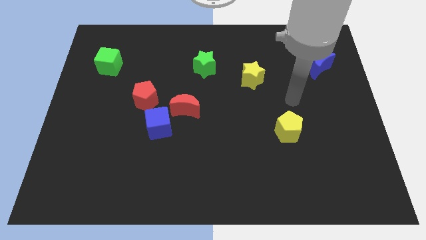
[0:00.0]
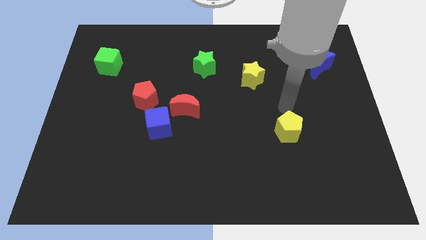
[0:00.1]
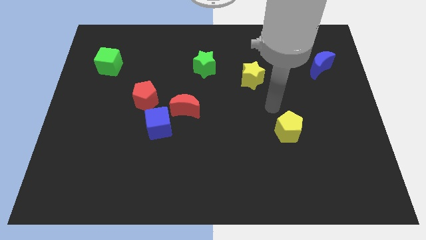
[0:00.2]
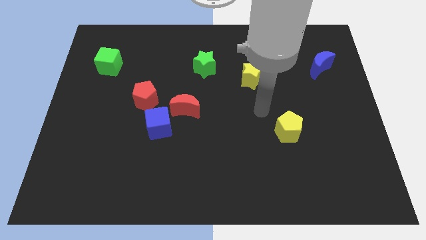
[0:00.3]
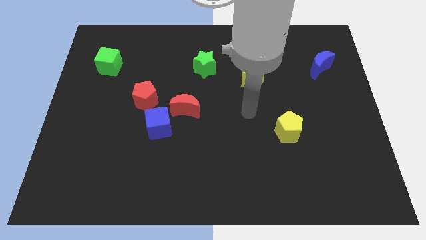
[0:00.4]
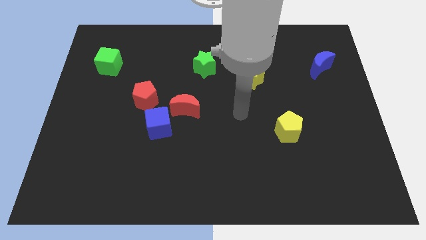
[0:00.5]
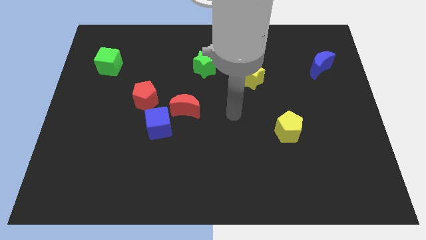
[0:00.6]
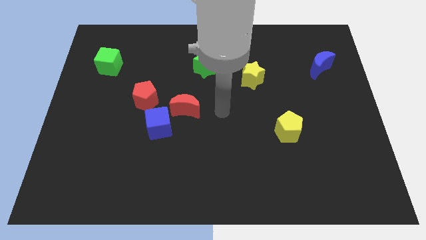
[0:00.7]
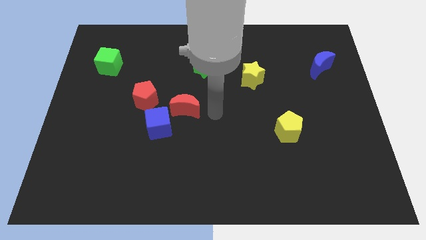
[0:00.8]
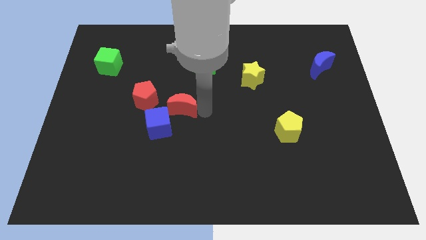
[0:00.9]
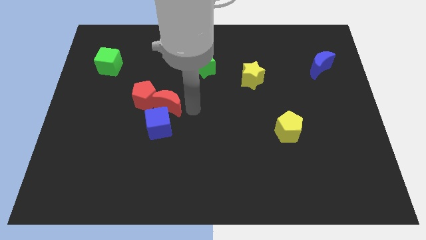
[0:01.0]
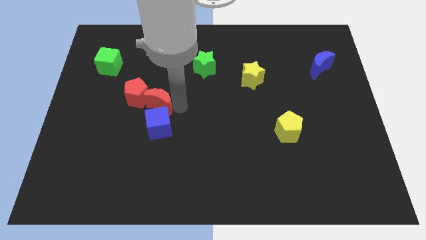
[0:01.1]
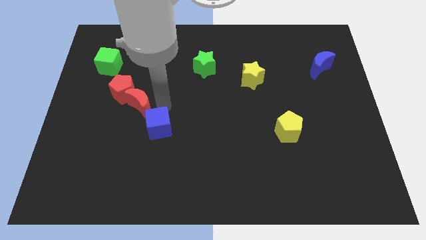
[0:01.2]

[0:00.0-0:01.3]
pull the blue cube apart from the red moon and red pentagon

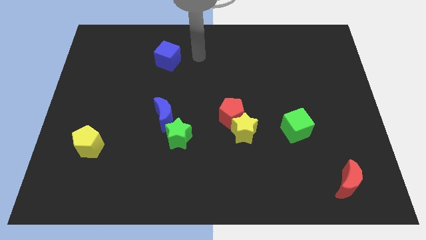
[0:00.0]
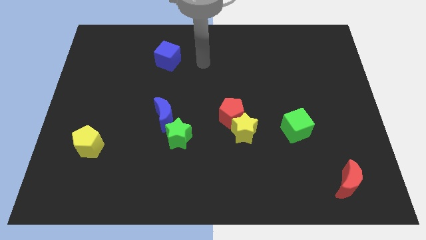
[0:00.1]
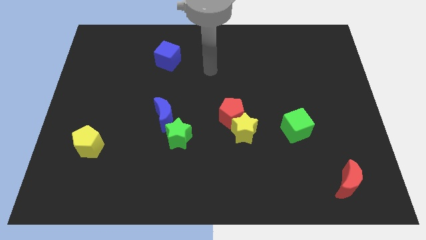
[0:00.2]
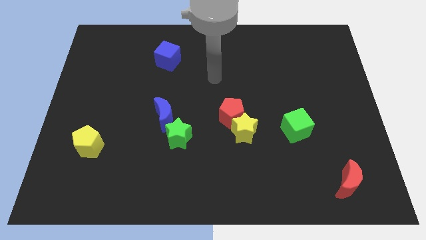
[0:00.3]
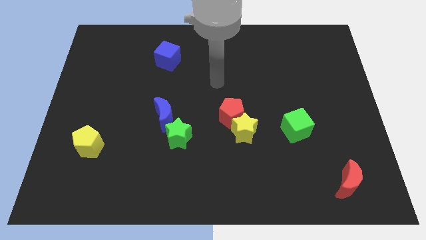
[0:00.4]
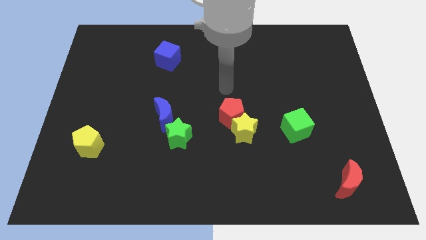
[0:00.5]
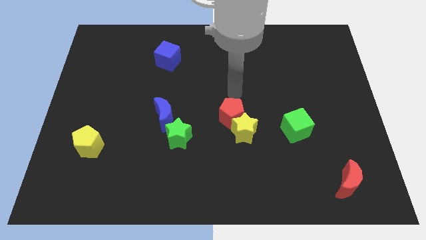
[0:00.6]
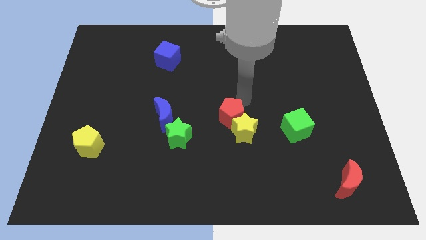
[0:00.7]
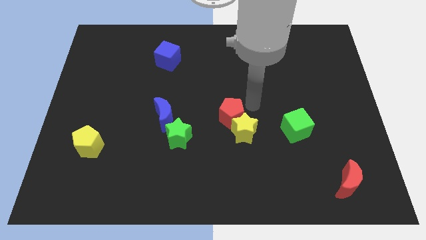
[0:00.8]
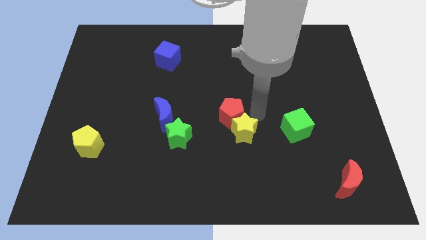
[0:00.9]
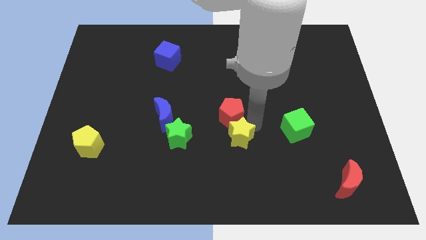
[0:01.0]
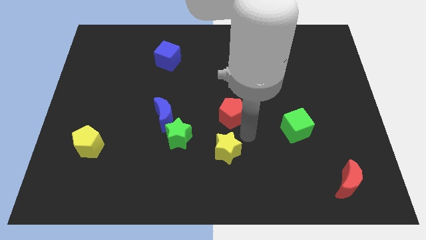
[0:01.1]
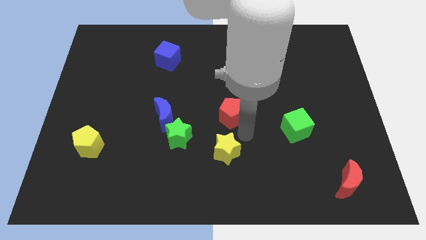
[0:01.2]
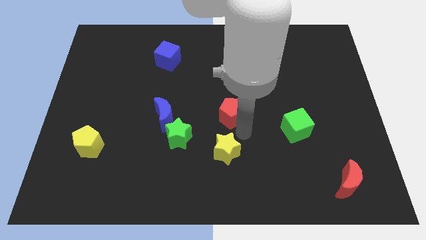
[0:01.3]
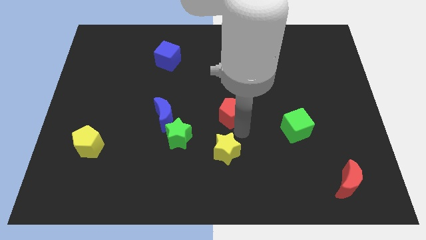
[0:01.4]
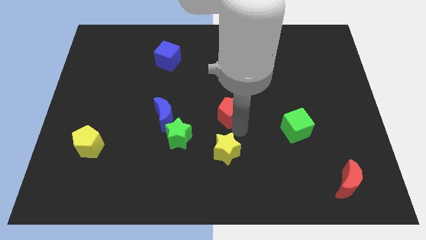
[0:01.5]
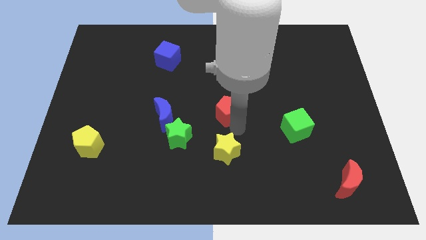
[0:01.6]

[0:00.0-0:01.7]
pull the red pentagon apart from the yellow star

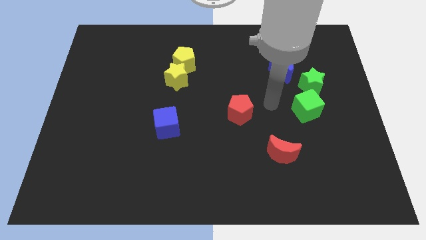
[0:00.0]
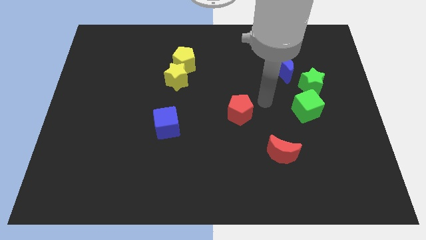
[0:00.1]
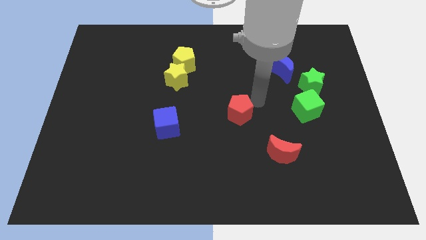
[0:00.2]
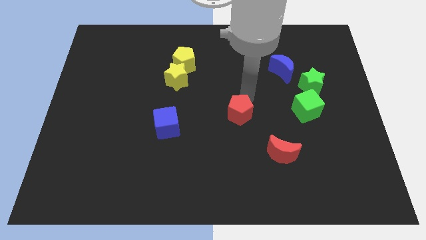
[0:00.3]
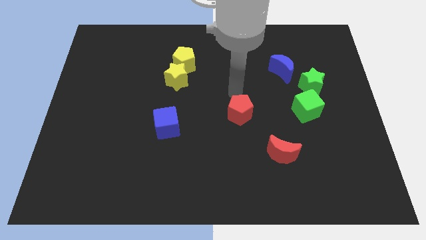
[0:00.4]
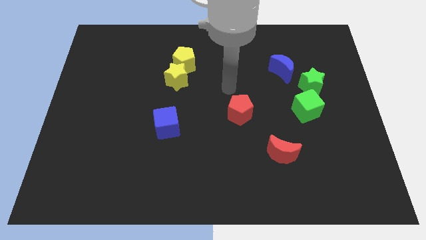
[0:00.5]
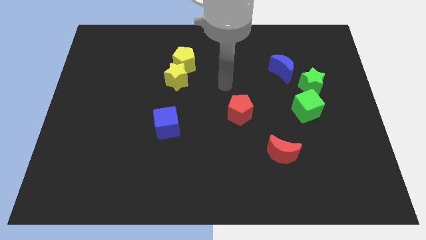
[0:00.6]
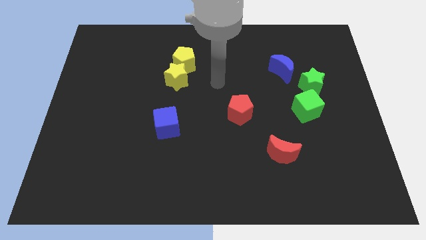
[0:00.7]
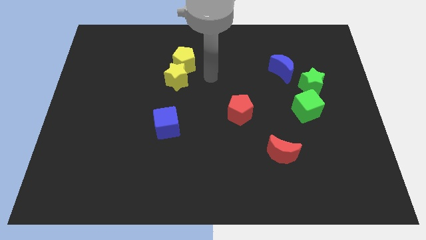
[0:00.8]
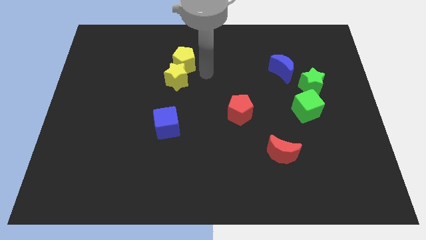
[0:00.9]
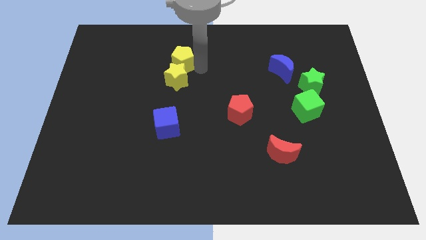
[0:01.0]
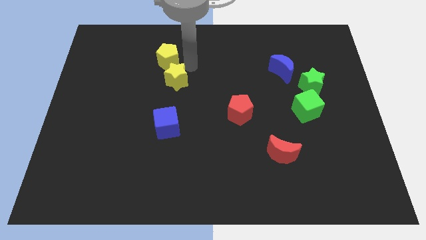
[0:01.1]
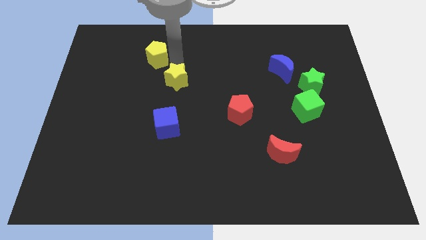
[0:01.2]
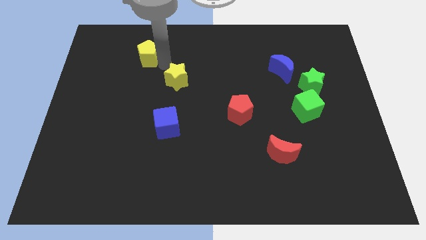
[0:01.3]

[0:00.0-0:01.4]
move the yellow star away from the yellow pentagon

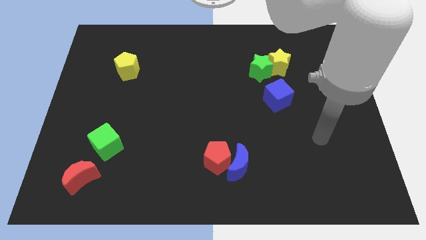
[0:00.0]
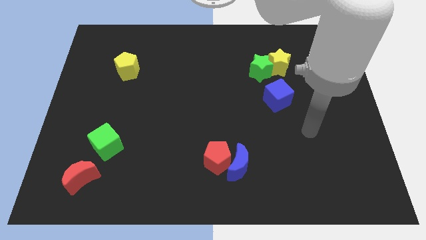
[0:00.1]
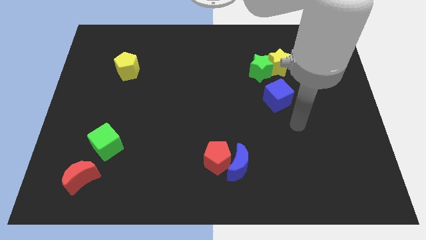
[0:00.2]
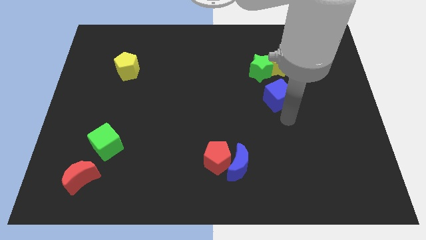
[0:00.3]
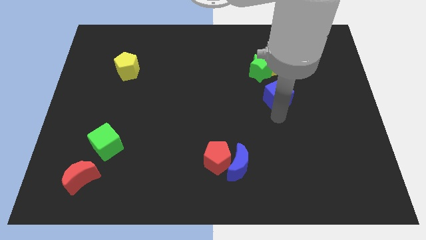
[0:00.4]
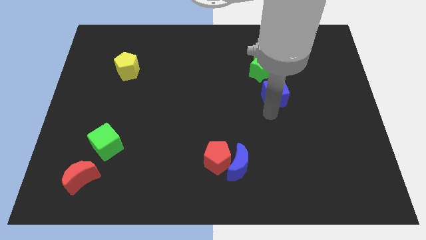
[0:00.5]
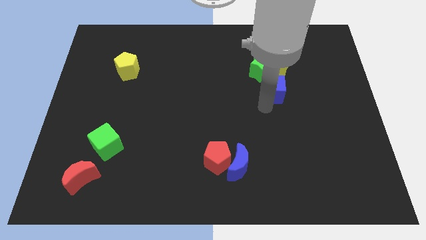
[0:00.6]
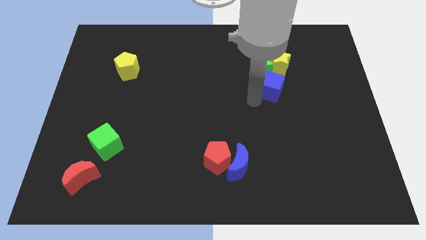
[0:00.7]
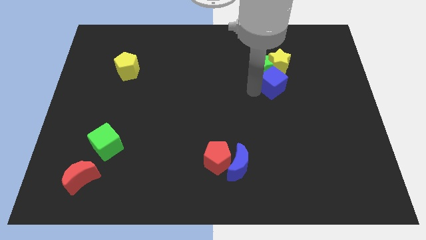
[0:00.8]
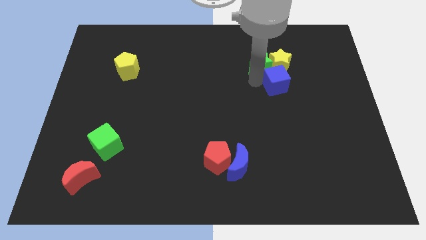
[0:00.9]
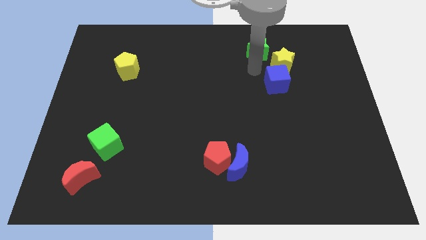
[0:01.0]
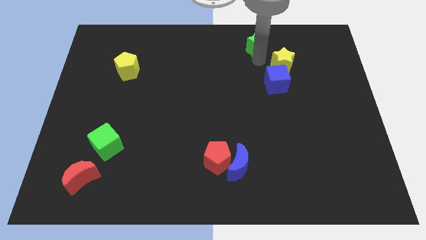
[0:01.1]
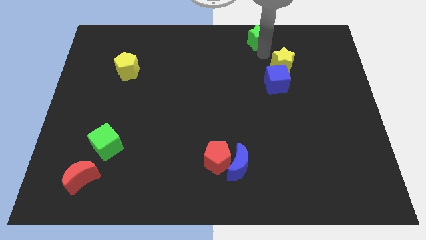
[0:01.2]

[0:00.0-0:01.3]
separate the yellow star from the green star

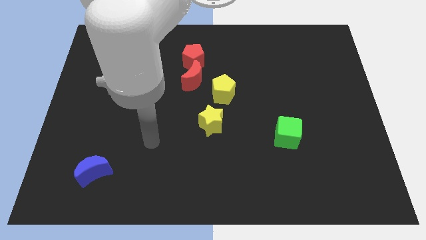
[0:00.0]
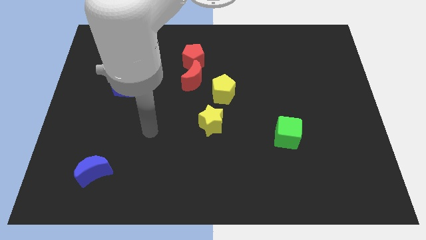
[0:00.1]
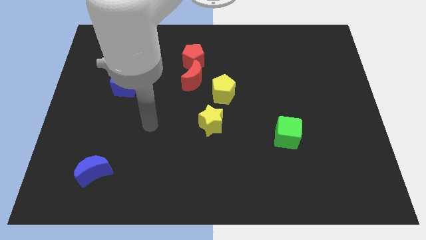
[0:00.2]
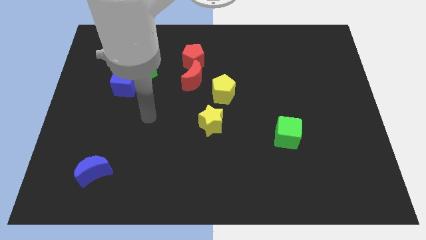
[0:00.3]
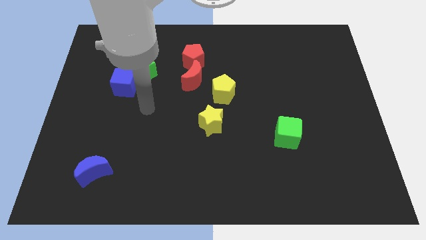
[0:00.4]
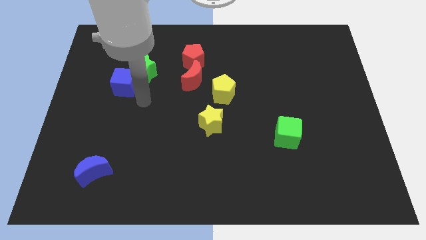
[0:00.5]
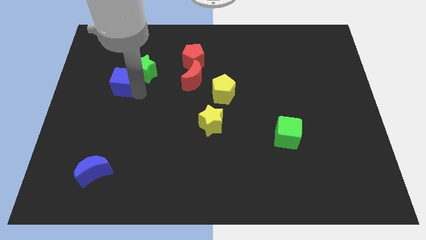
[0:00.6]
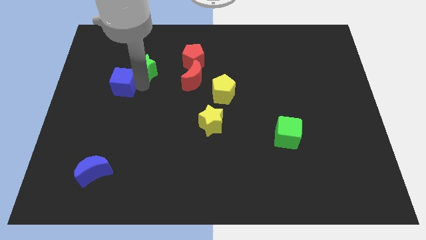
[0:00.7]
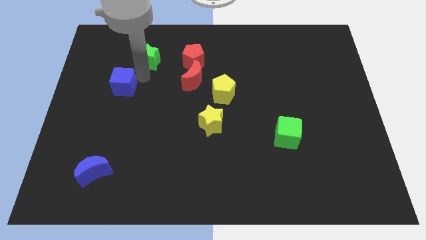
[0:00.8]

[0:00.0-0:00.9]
pull the blue cube apart from the green star

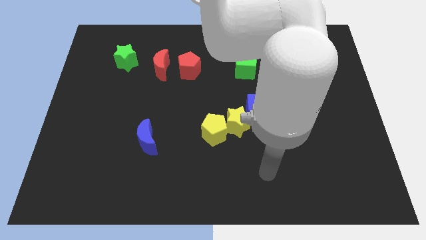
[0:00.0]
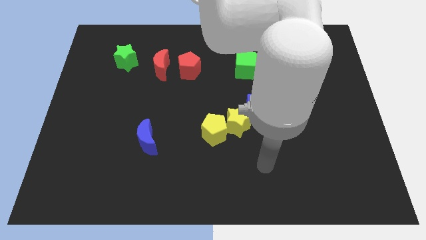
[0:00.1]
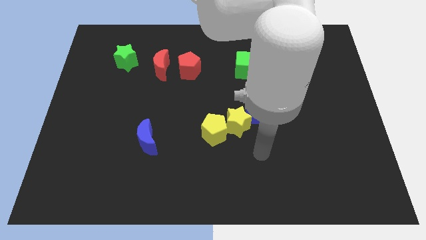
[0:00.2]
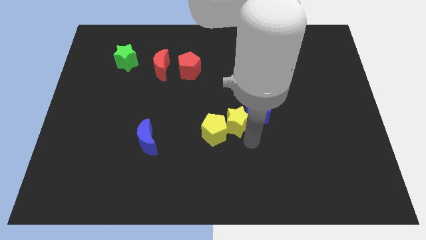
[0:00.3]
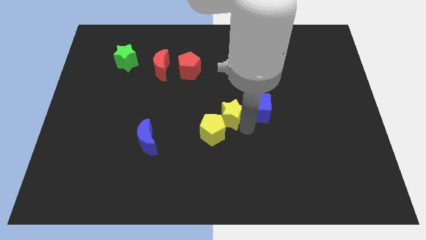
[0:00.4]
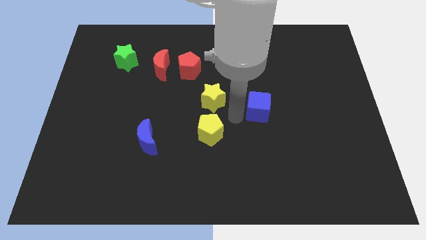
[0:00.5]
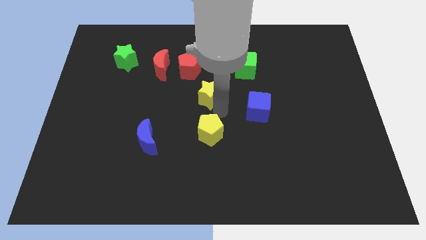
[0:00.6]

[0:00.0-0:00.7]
move the yellow pentagon away from the yellow star

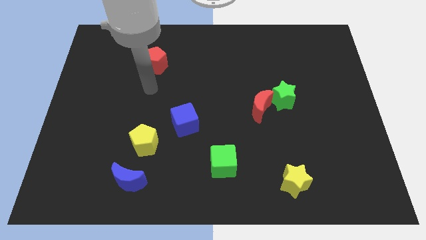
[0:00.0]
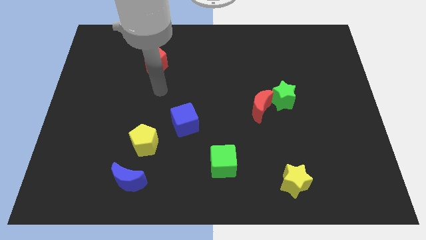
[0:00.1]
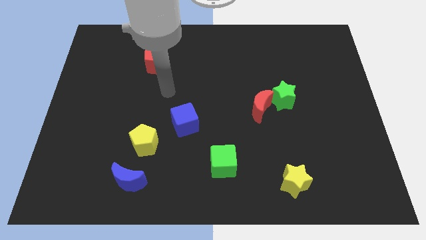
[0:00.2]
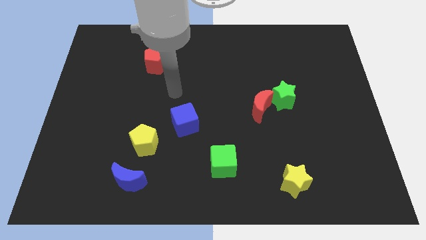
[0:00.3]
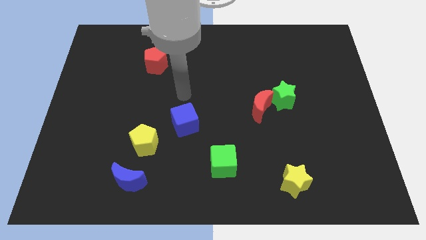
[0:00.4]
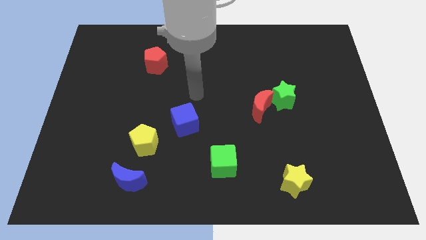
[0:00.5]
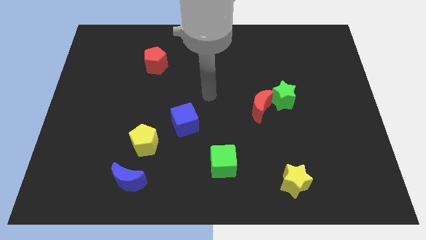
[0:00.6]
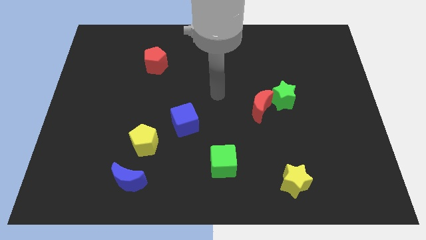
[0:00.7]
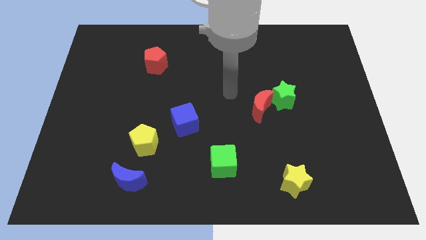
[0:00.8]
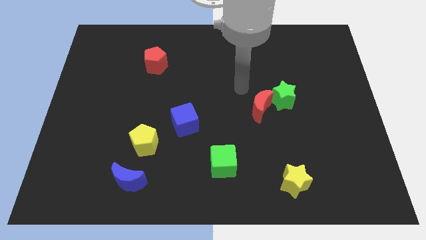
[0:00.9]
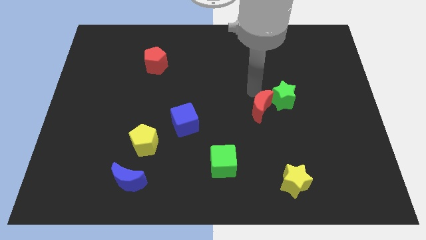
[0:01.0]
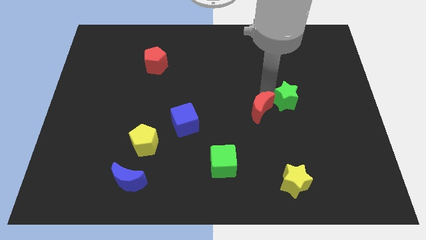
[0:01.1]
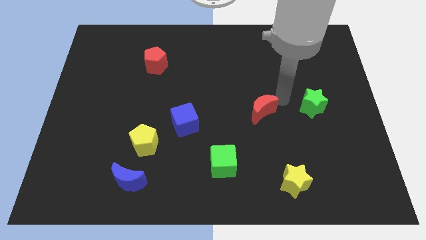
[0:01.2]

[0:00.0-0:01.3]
move the red moon away from the green star

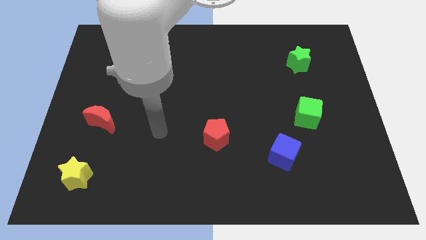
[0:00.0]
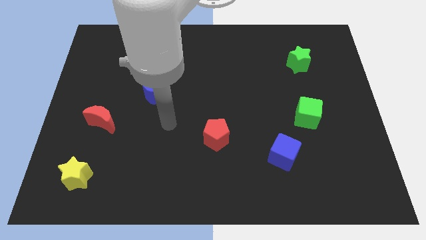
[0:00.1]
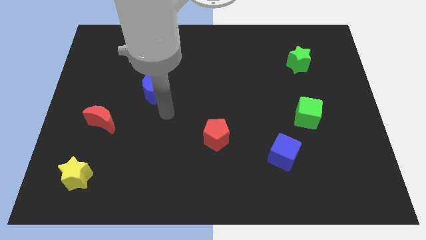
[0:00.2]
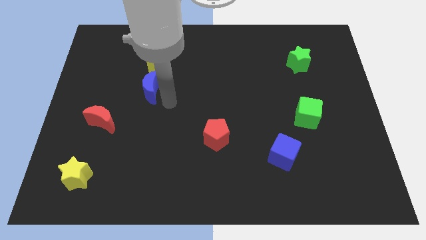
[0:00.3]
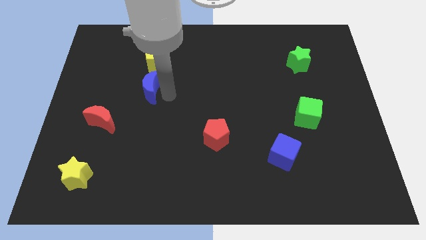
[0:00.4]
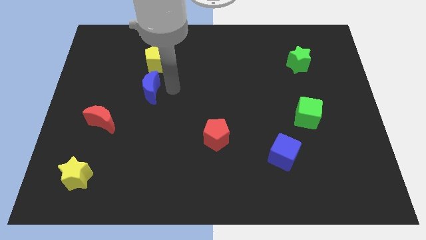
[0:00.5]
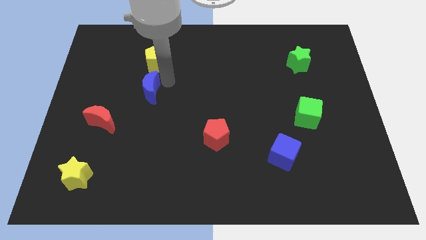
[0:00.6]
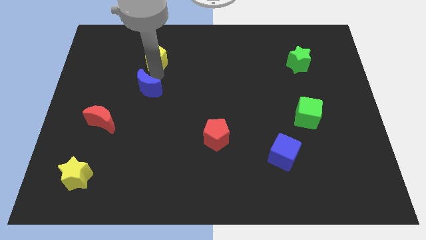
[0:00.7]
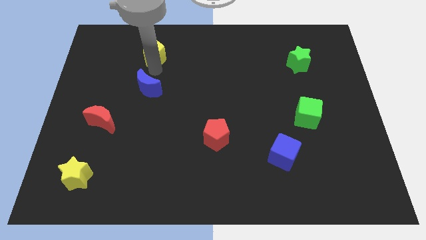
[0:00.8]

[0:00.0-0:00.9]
pull the blue moon apart from the yellow pentagon
